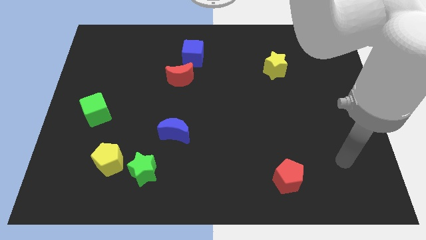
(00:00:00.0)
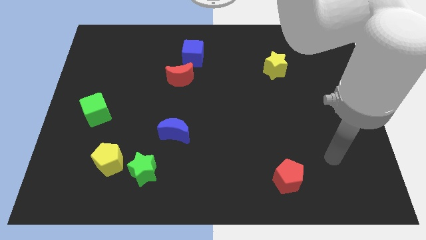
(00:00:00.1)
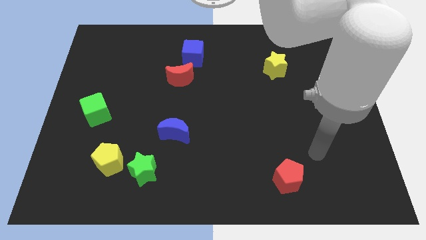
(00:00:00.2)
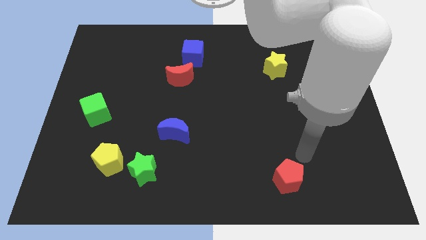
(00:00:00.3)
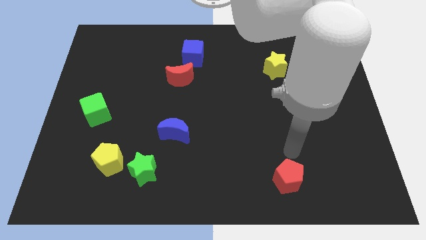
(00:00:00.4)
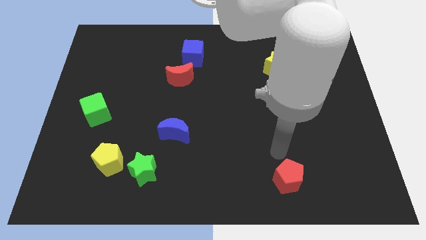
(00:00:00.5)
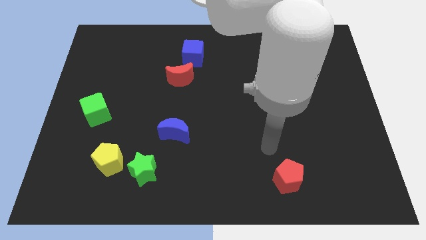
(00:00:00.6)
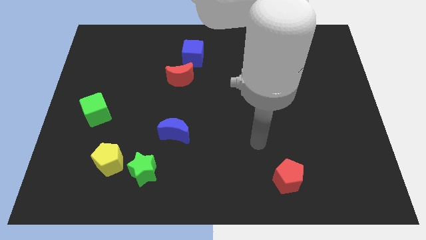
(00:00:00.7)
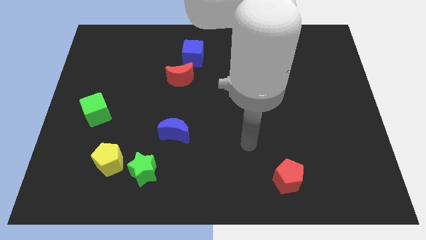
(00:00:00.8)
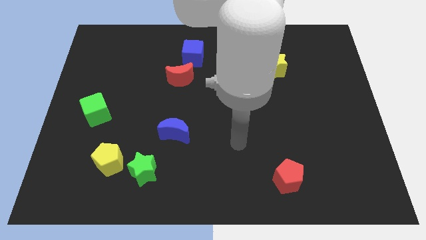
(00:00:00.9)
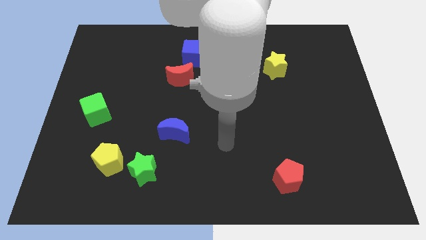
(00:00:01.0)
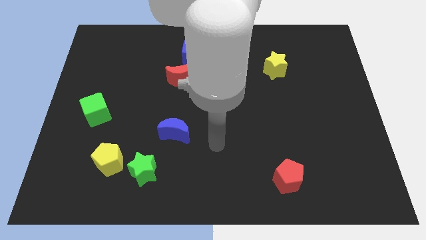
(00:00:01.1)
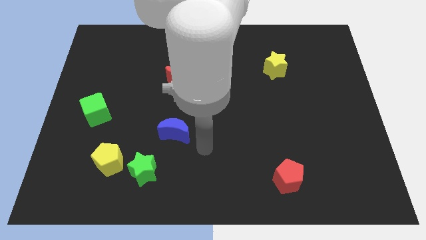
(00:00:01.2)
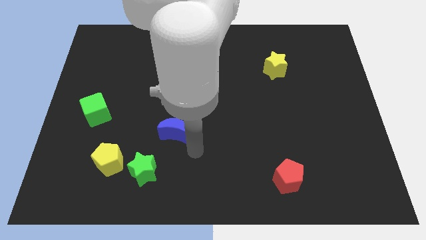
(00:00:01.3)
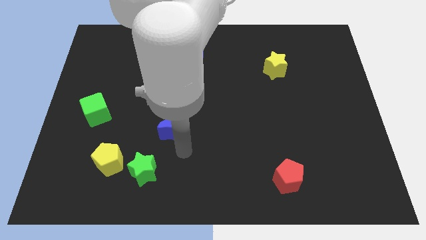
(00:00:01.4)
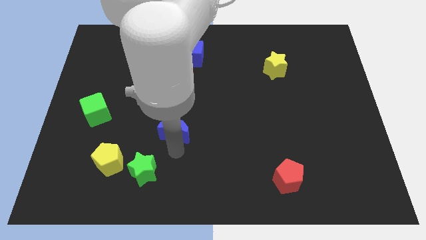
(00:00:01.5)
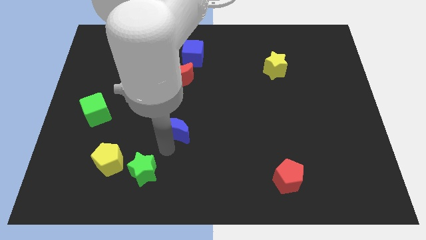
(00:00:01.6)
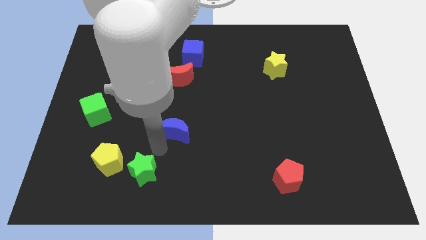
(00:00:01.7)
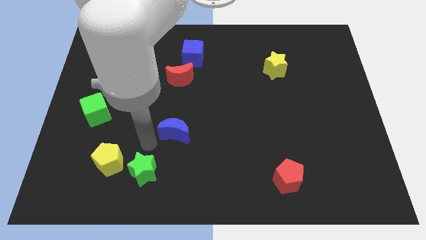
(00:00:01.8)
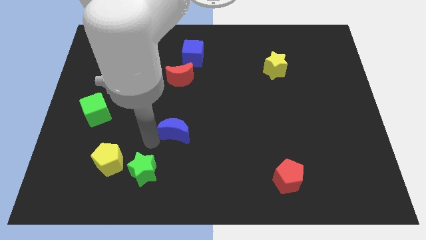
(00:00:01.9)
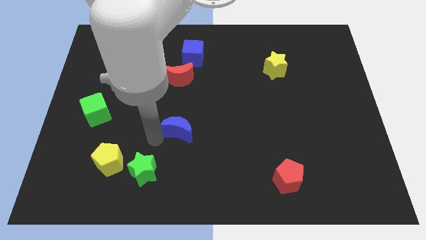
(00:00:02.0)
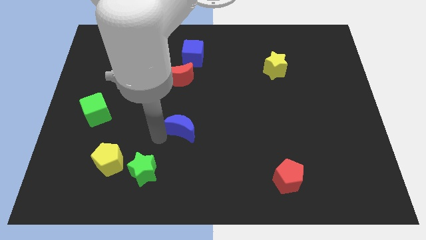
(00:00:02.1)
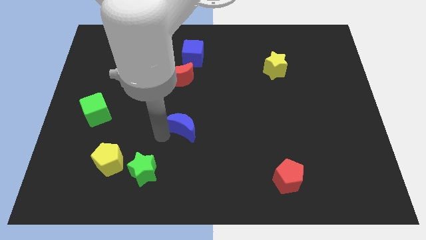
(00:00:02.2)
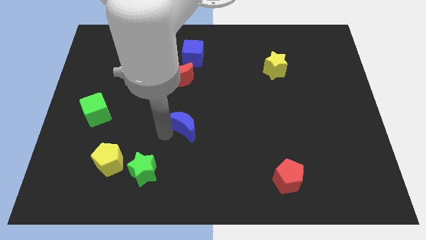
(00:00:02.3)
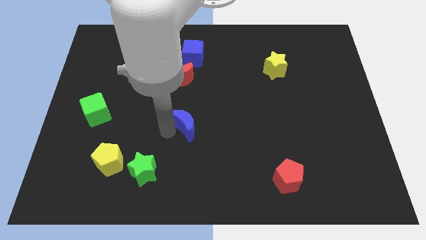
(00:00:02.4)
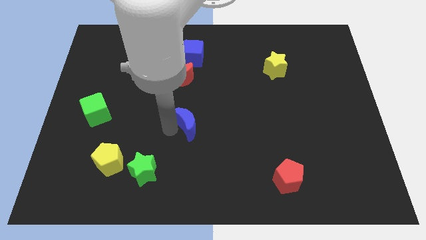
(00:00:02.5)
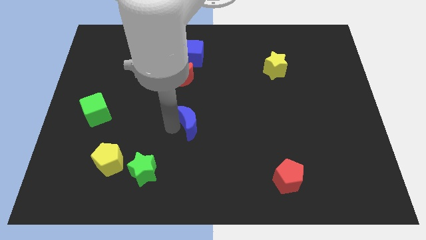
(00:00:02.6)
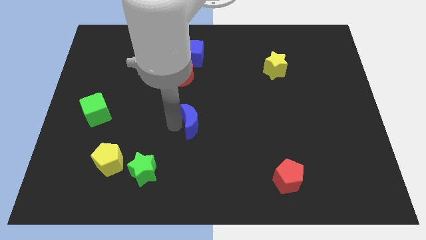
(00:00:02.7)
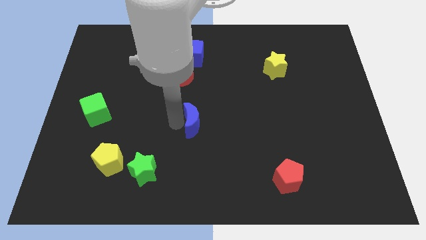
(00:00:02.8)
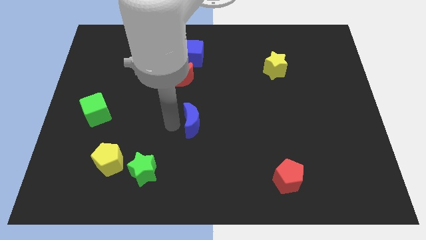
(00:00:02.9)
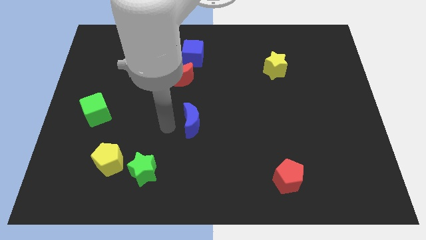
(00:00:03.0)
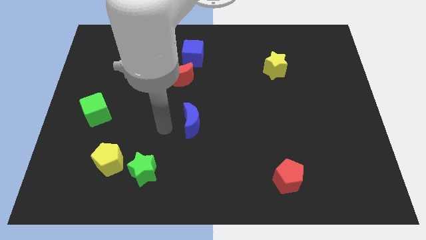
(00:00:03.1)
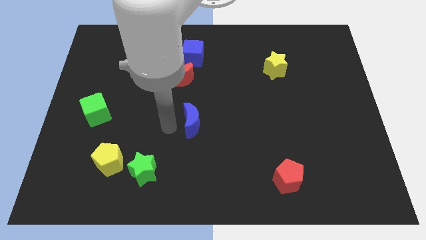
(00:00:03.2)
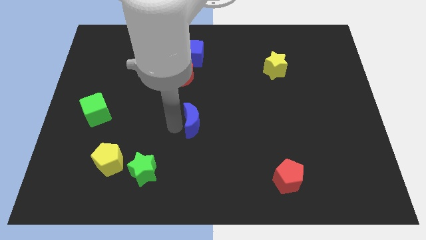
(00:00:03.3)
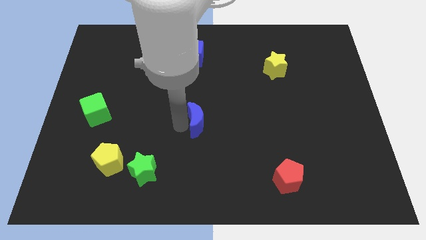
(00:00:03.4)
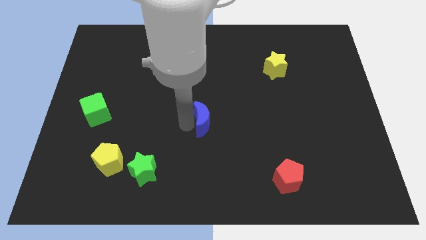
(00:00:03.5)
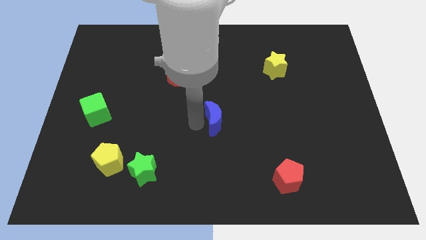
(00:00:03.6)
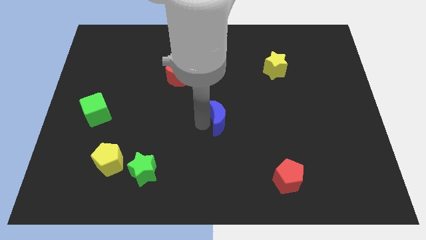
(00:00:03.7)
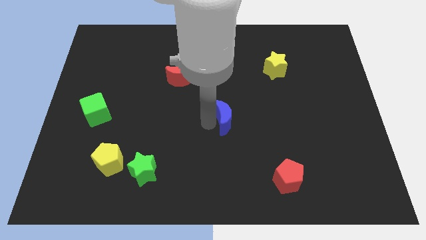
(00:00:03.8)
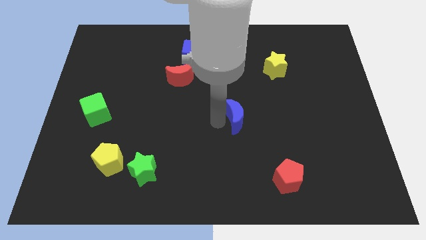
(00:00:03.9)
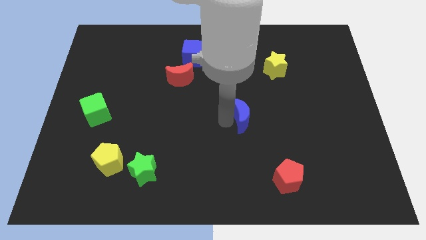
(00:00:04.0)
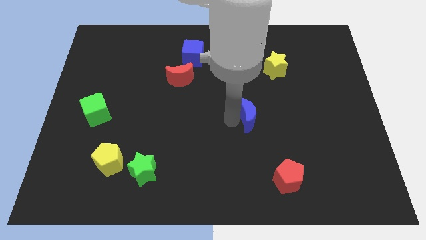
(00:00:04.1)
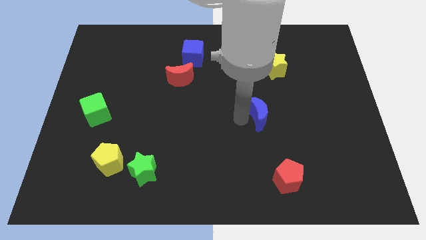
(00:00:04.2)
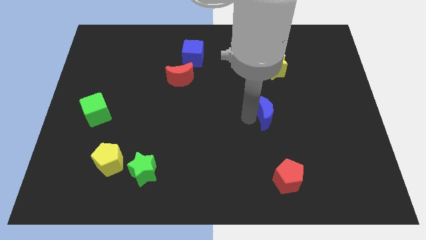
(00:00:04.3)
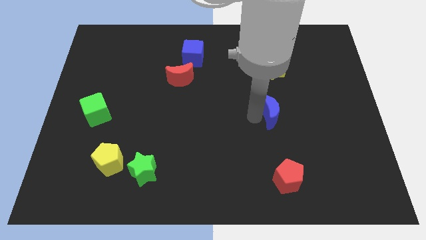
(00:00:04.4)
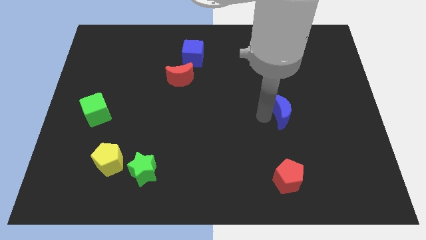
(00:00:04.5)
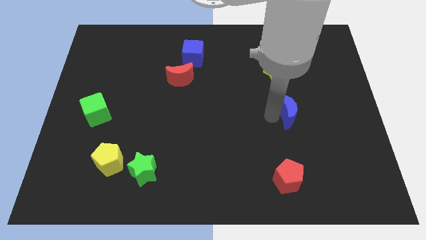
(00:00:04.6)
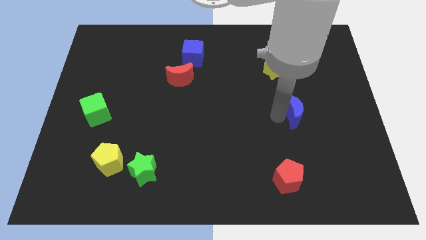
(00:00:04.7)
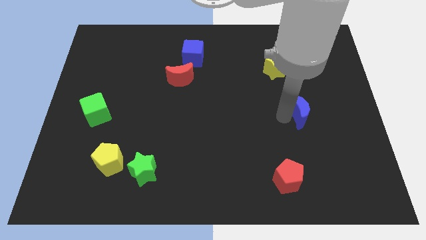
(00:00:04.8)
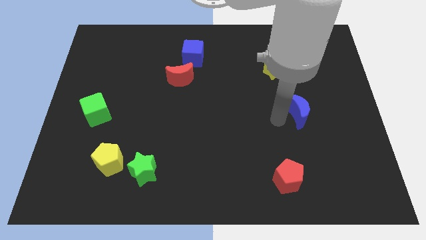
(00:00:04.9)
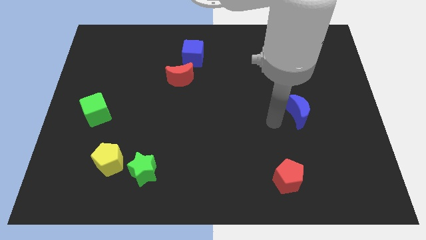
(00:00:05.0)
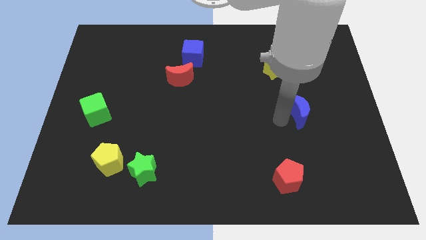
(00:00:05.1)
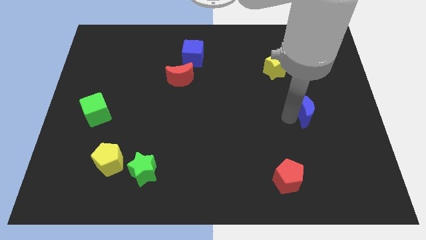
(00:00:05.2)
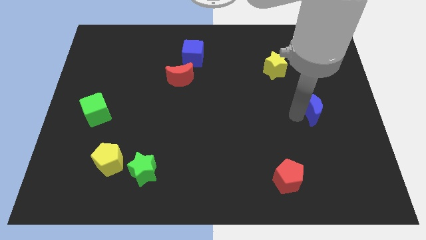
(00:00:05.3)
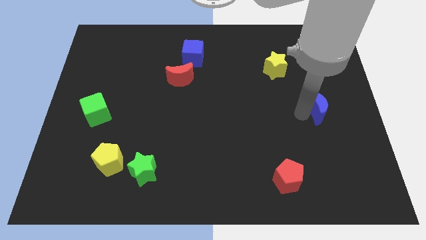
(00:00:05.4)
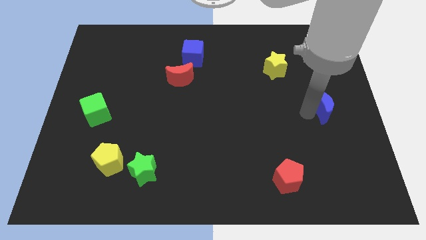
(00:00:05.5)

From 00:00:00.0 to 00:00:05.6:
put the blue moon to the right side of the board
